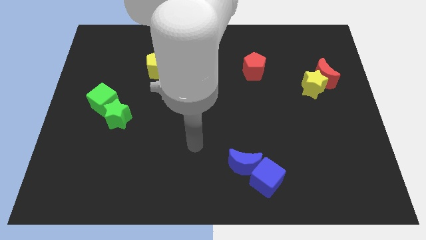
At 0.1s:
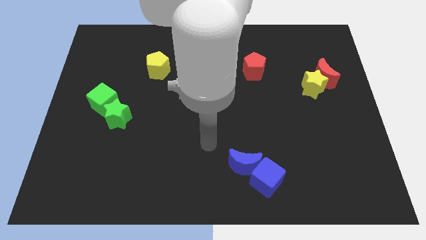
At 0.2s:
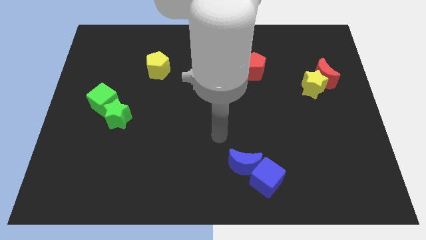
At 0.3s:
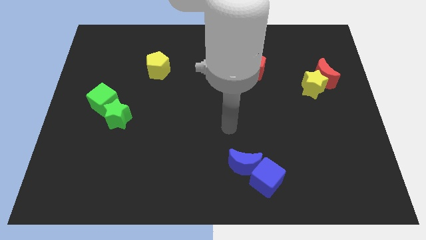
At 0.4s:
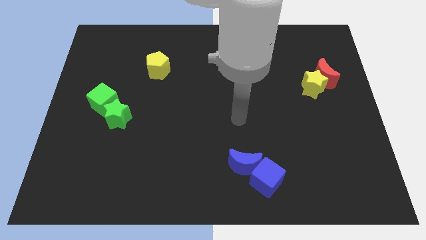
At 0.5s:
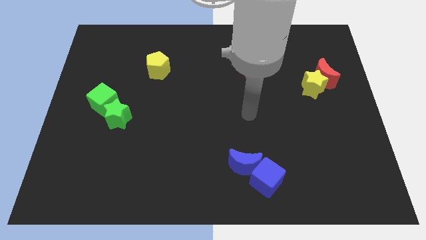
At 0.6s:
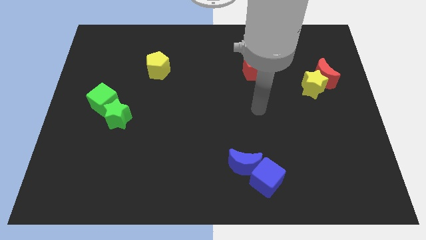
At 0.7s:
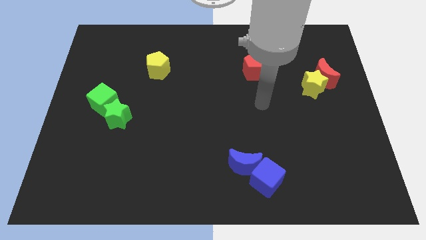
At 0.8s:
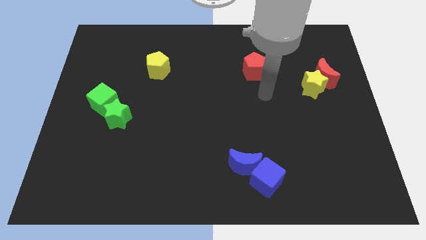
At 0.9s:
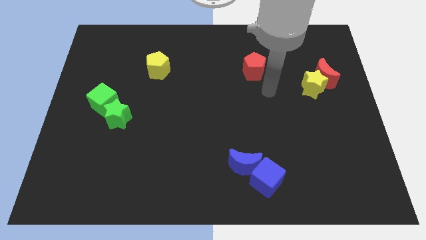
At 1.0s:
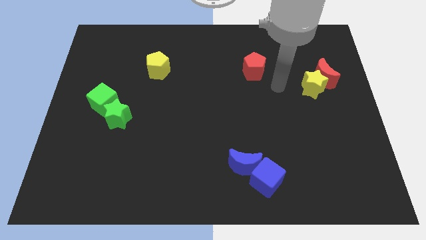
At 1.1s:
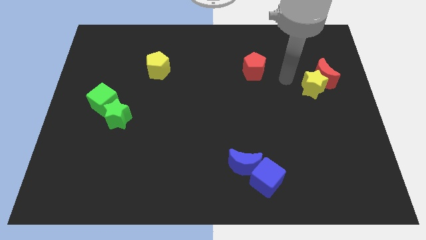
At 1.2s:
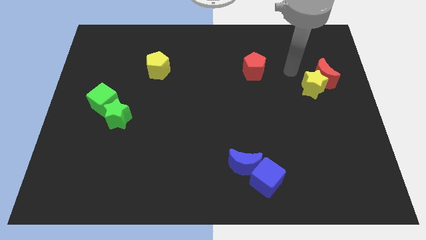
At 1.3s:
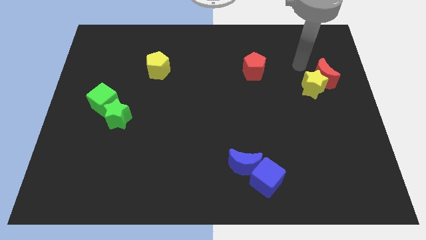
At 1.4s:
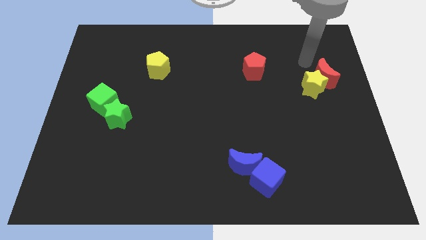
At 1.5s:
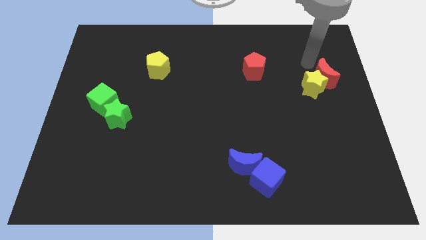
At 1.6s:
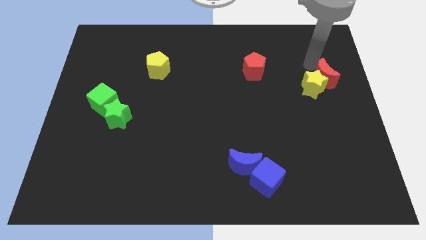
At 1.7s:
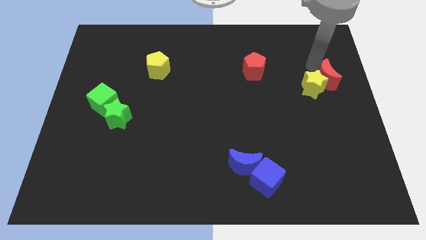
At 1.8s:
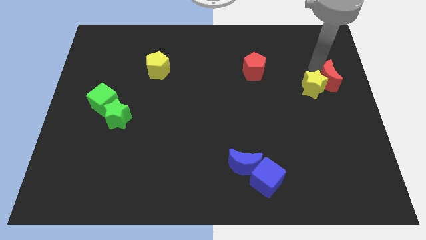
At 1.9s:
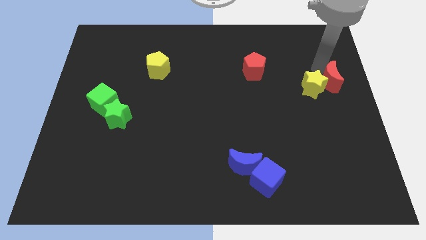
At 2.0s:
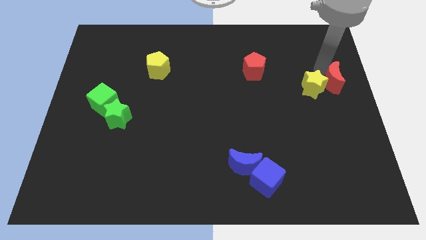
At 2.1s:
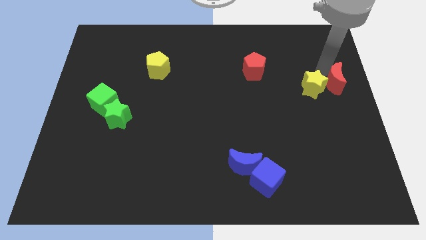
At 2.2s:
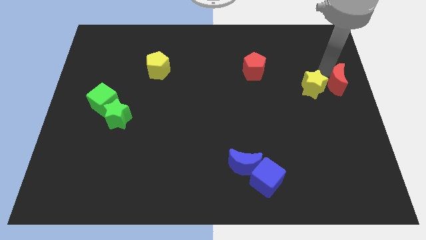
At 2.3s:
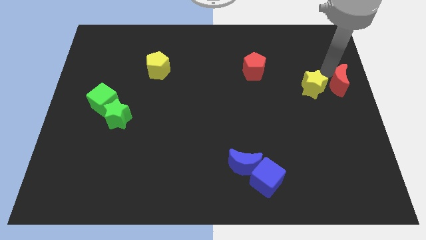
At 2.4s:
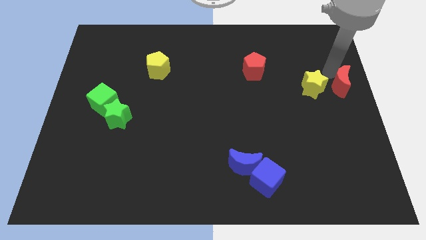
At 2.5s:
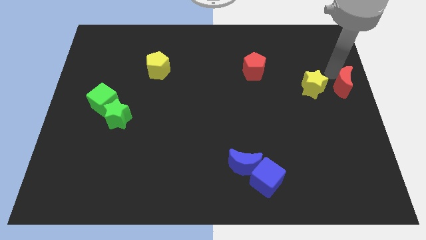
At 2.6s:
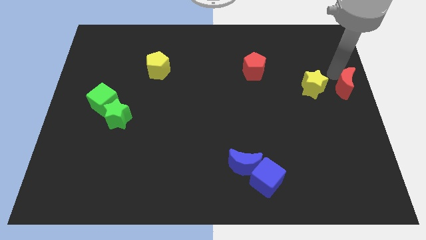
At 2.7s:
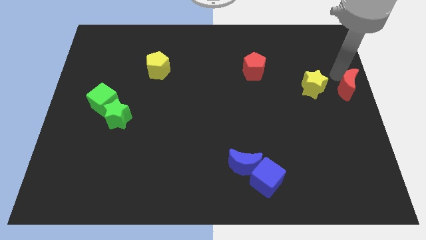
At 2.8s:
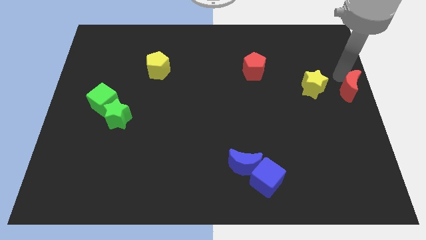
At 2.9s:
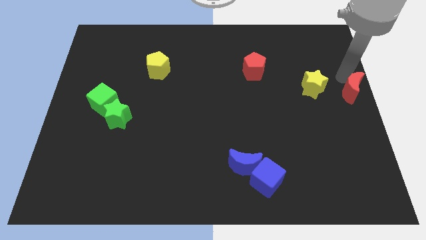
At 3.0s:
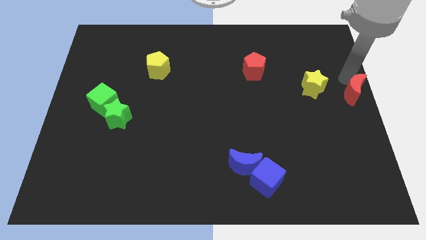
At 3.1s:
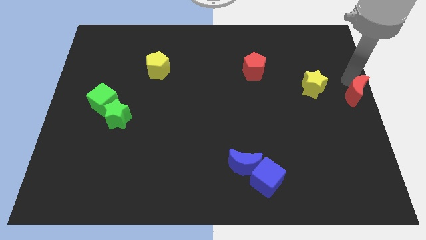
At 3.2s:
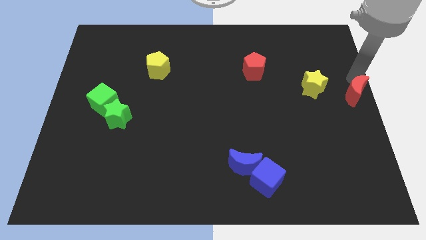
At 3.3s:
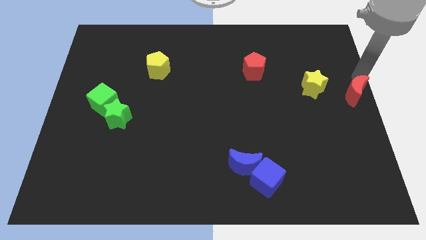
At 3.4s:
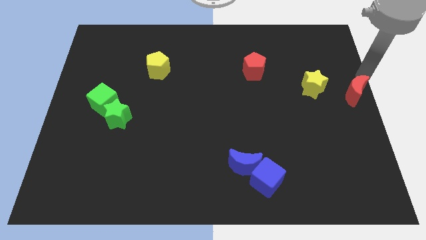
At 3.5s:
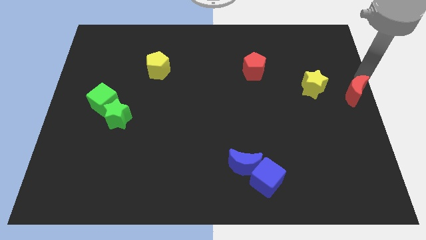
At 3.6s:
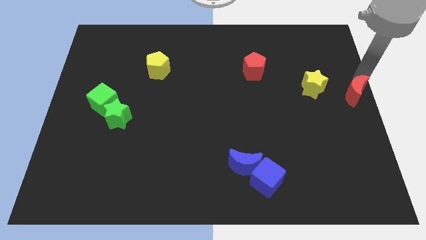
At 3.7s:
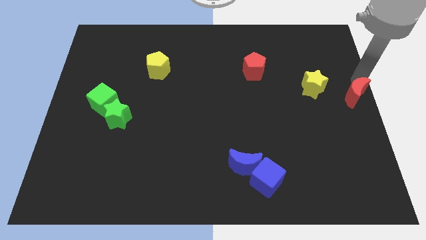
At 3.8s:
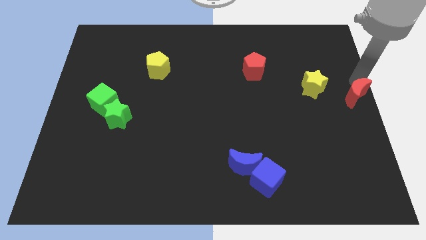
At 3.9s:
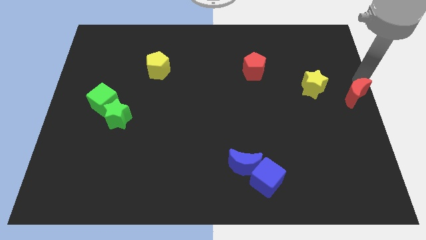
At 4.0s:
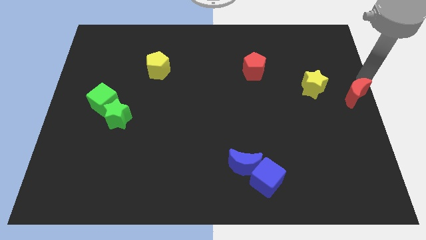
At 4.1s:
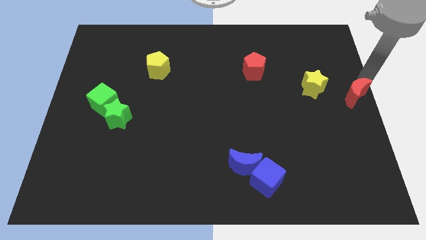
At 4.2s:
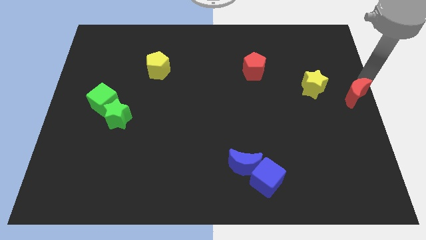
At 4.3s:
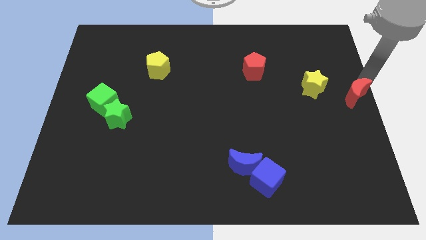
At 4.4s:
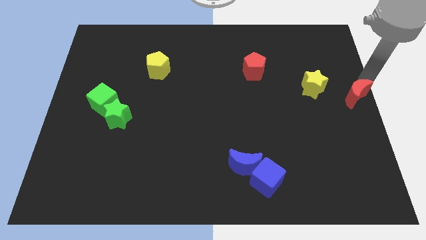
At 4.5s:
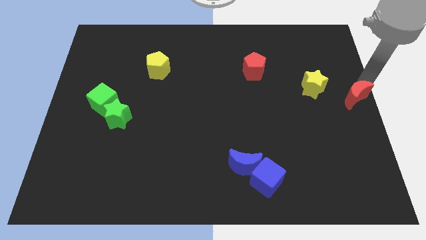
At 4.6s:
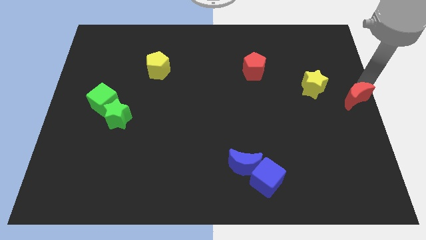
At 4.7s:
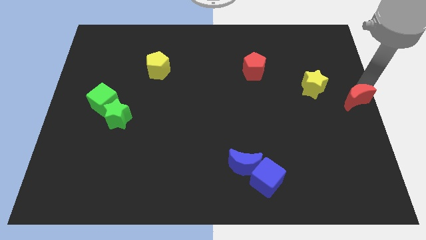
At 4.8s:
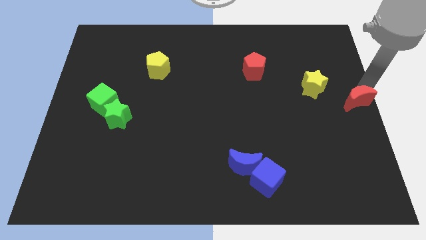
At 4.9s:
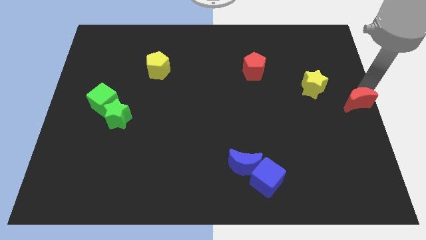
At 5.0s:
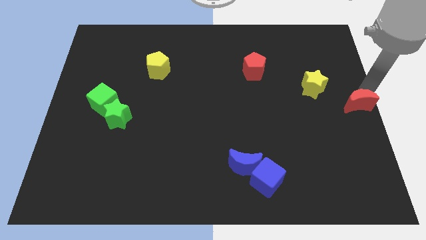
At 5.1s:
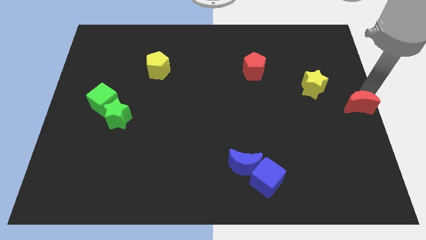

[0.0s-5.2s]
slide the red moon somewhat downwards

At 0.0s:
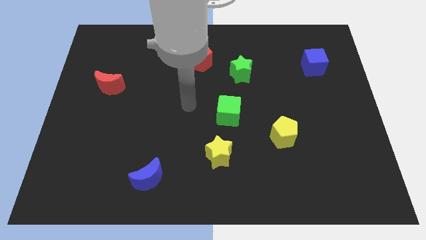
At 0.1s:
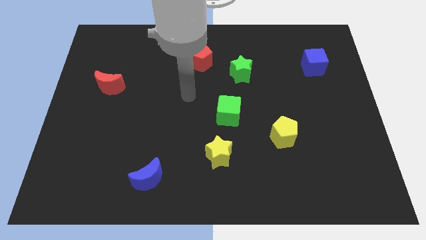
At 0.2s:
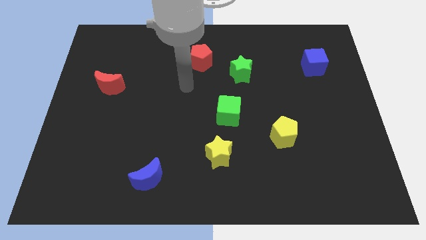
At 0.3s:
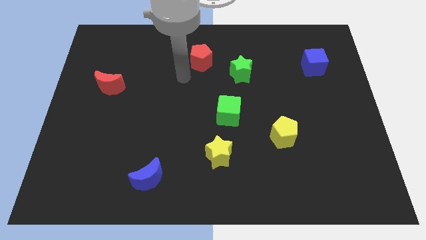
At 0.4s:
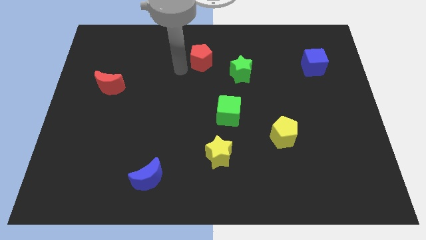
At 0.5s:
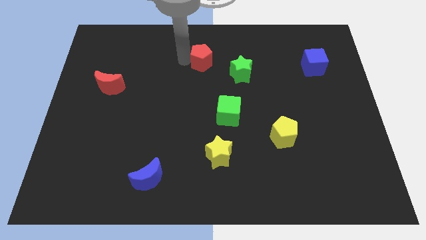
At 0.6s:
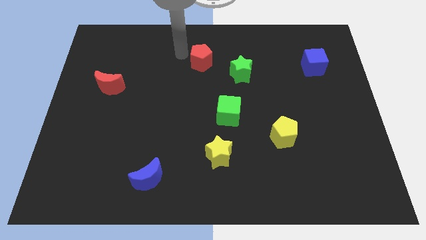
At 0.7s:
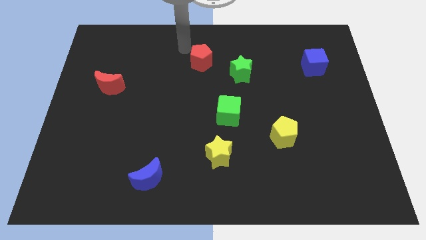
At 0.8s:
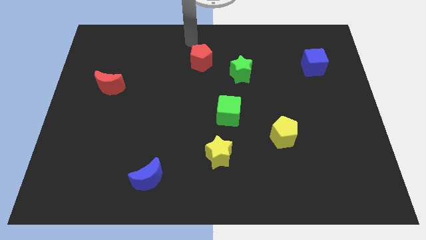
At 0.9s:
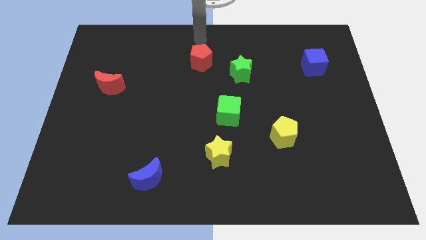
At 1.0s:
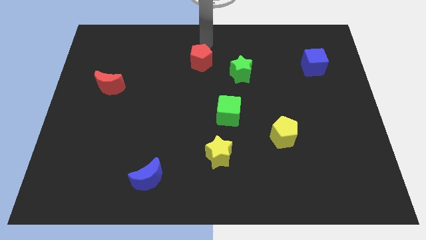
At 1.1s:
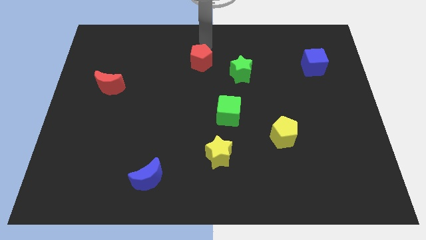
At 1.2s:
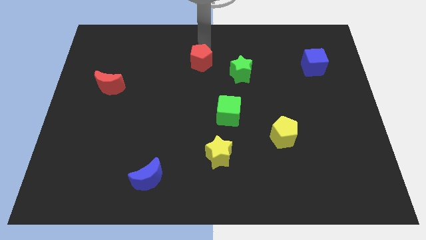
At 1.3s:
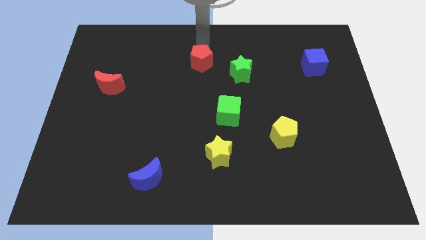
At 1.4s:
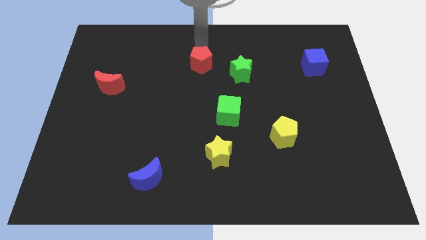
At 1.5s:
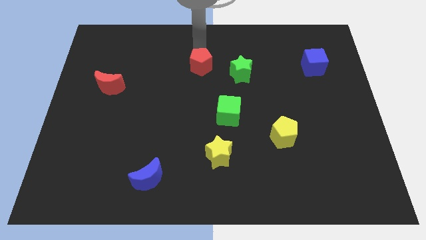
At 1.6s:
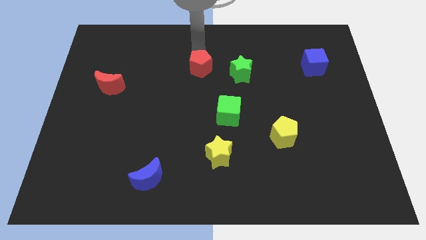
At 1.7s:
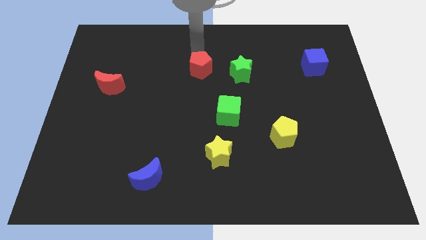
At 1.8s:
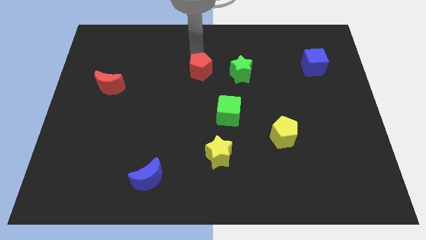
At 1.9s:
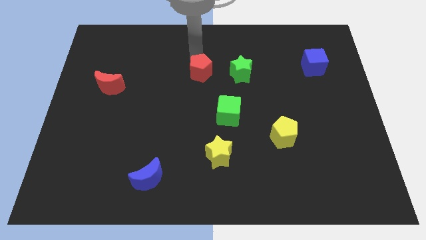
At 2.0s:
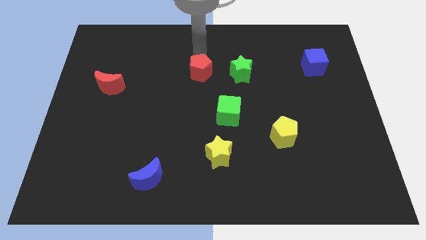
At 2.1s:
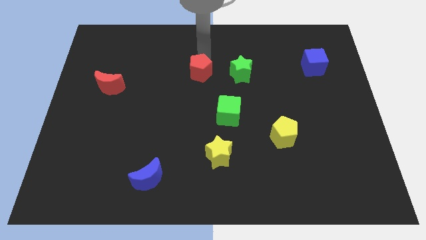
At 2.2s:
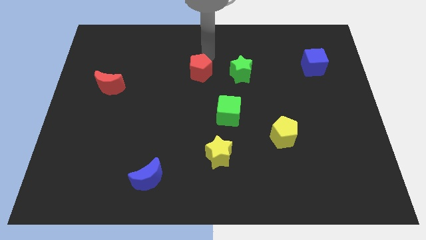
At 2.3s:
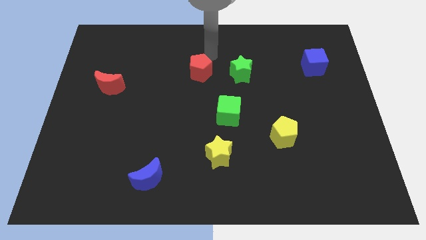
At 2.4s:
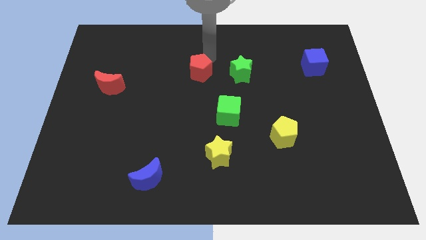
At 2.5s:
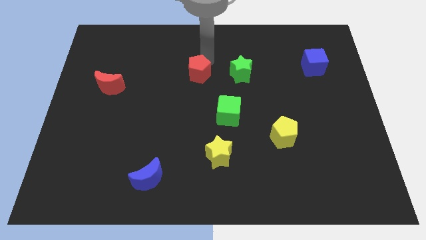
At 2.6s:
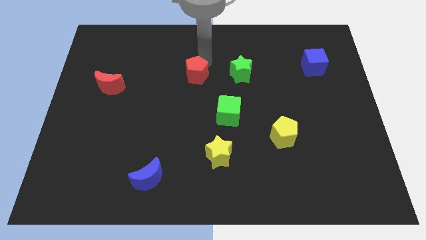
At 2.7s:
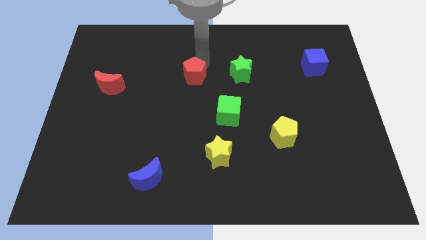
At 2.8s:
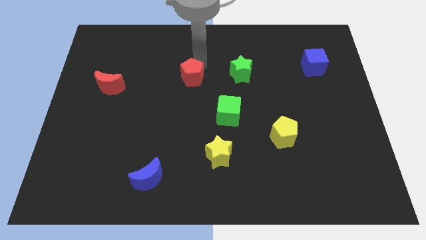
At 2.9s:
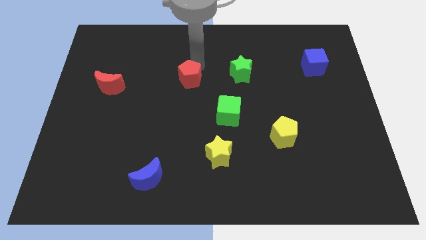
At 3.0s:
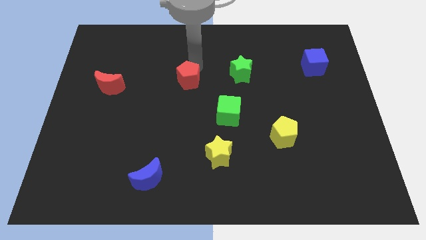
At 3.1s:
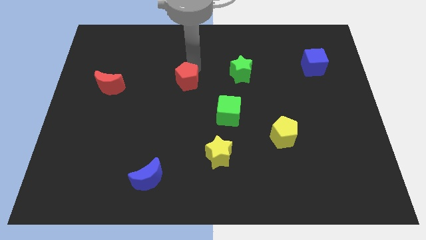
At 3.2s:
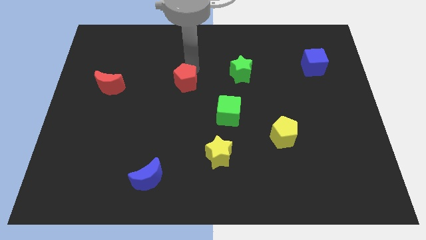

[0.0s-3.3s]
slightly move the red pentagon downwards
